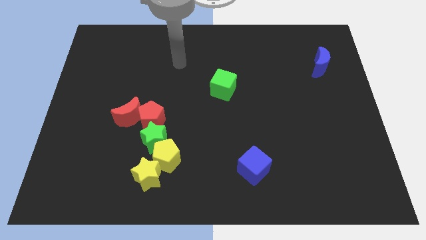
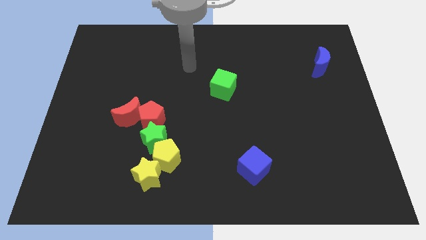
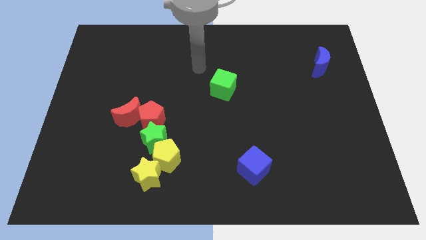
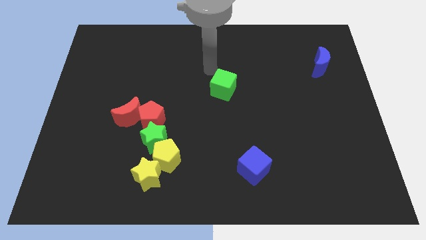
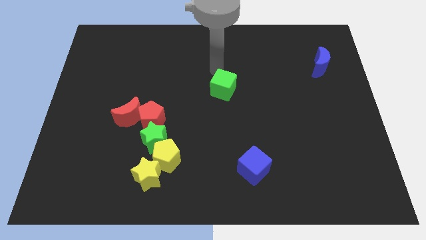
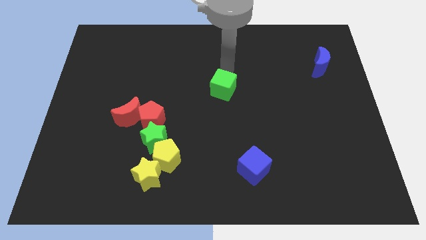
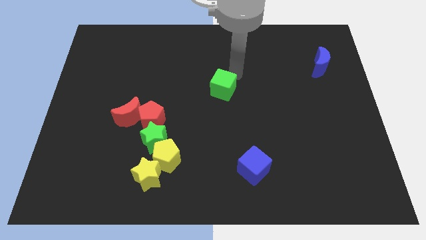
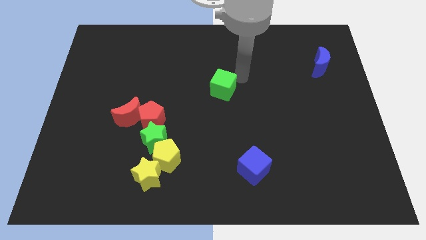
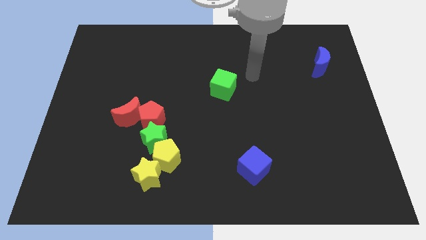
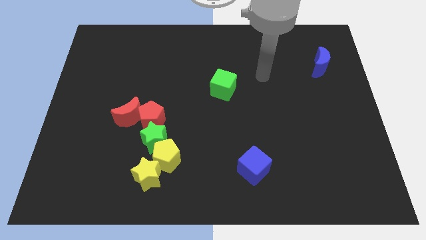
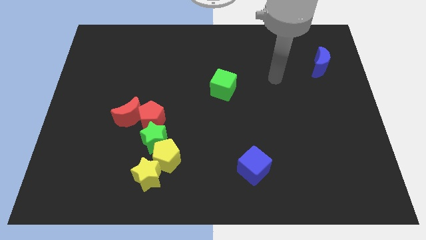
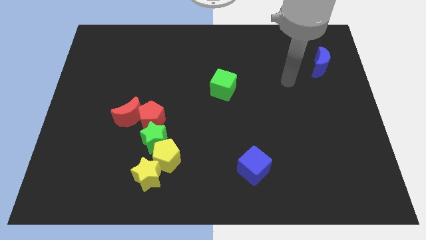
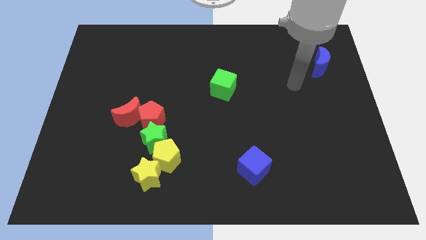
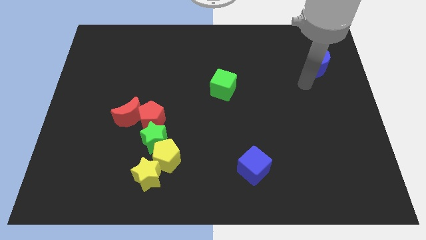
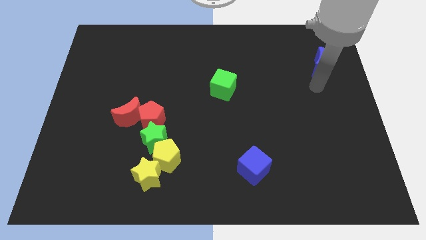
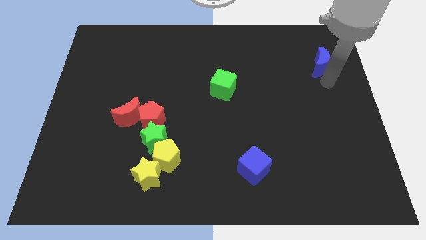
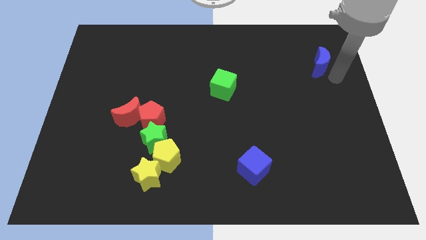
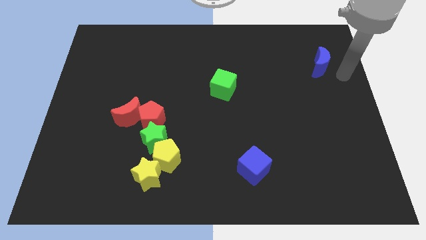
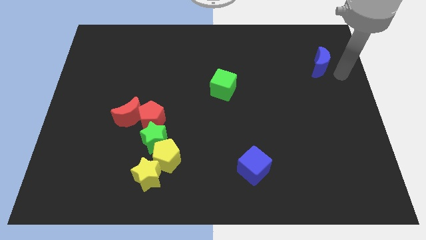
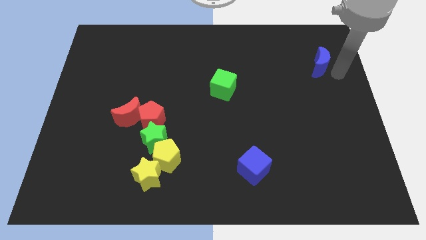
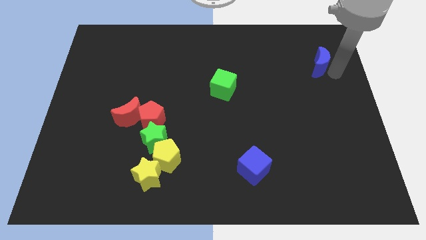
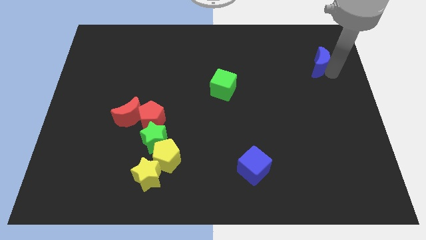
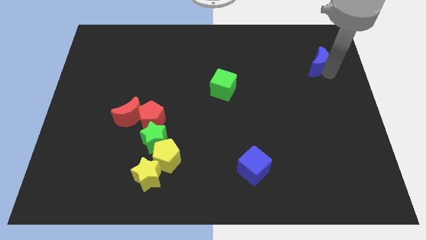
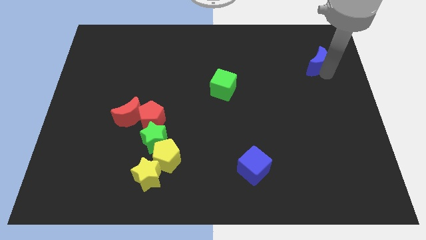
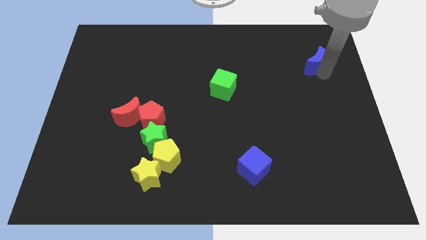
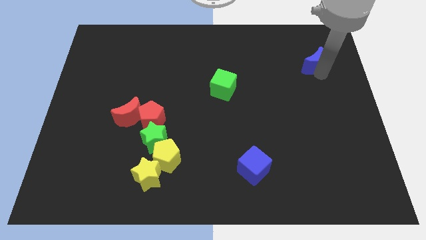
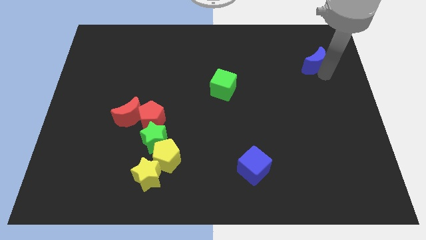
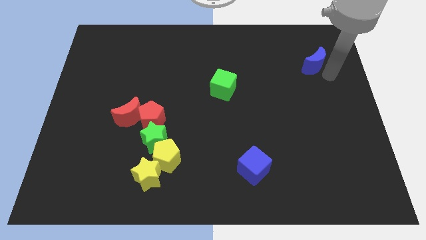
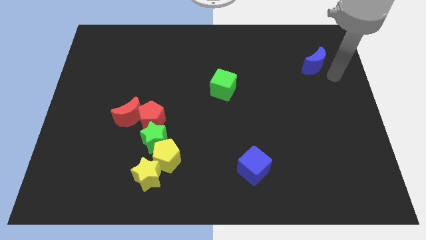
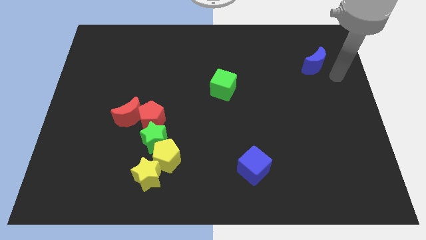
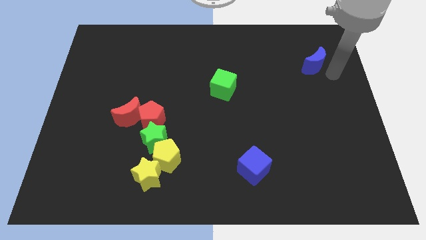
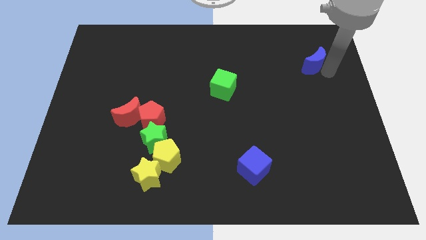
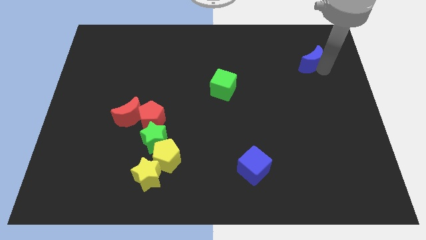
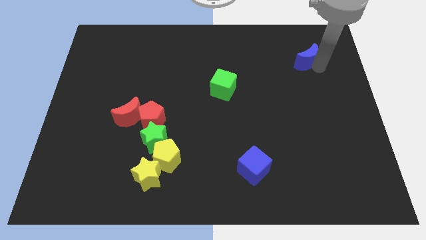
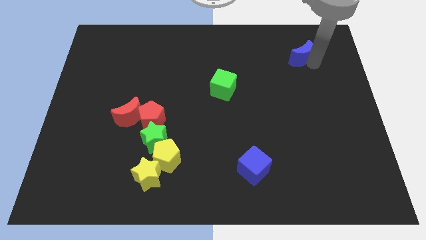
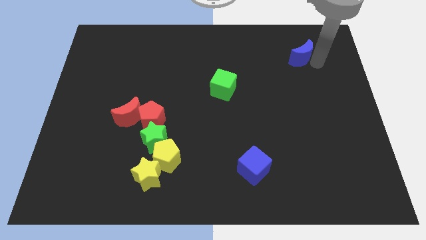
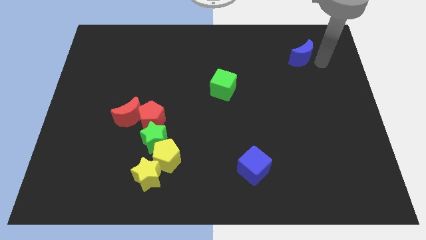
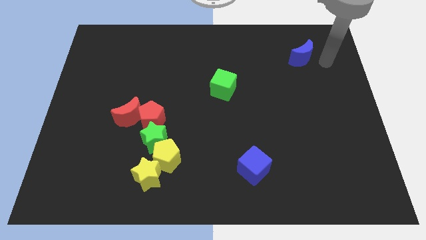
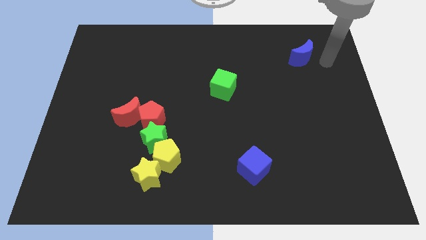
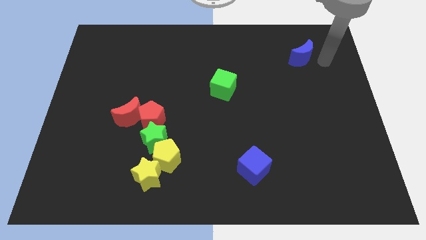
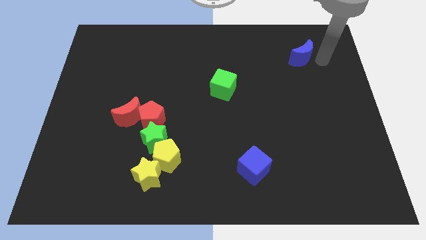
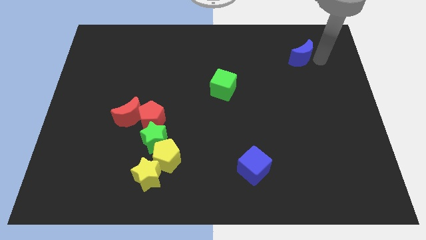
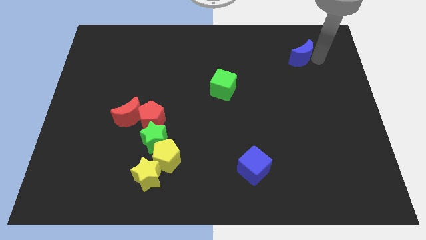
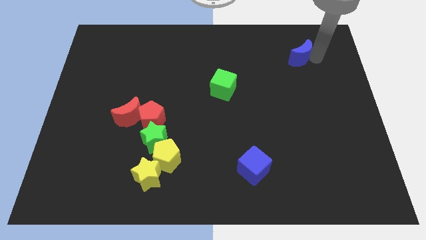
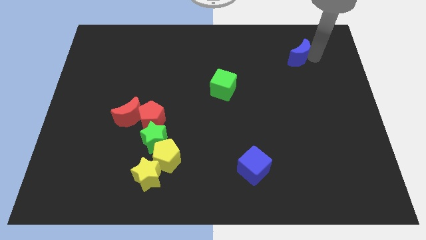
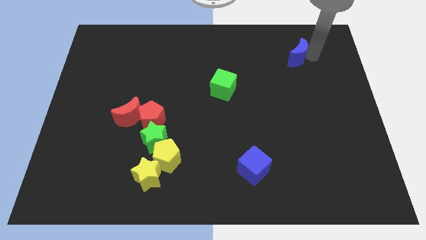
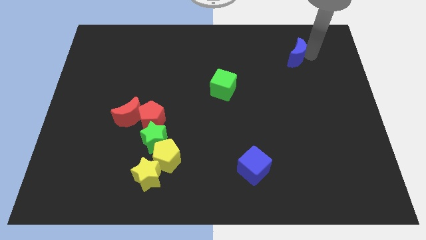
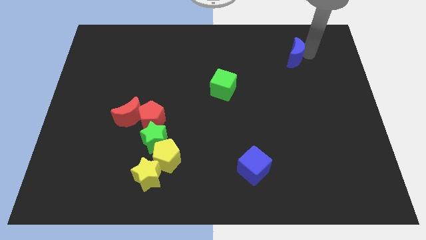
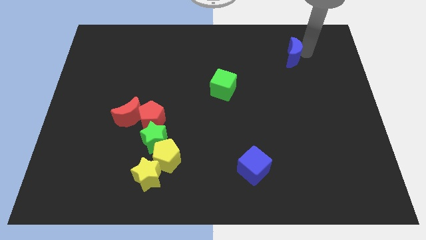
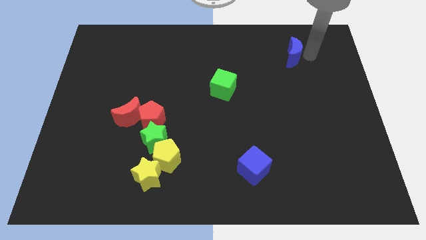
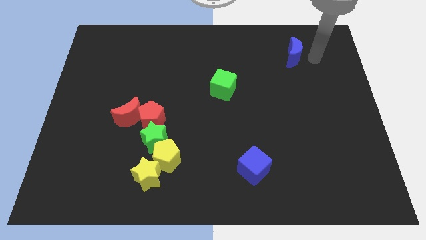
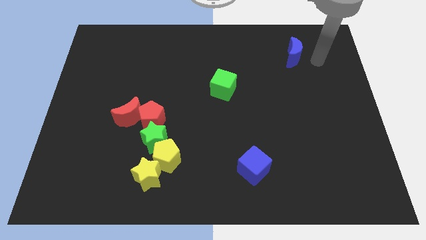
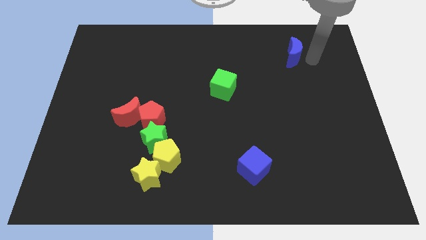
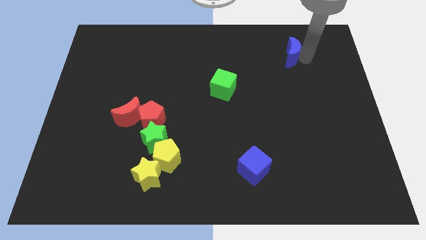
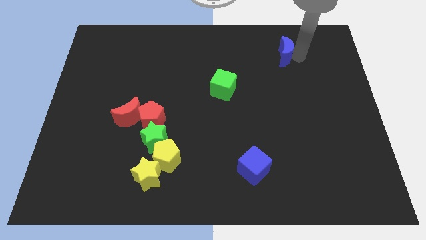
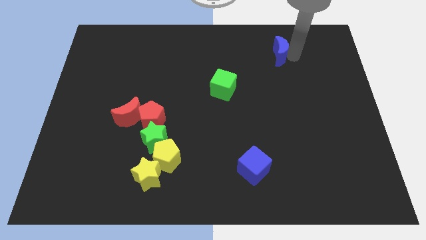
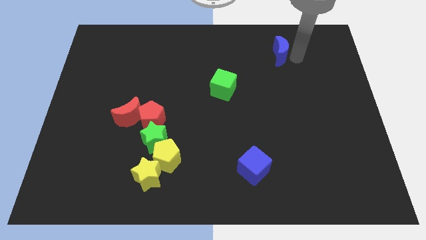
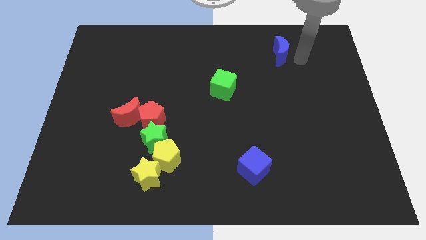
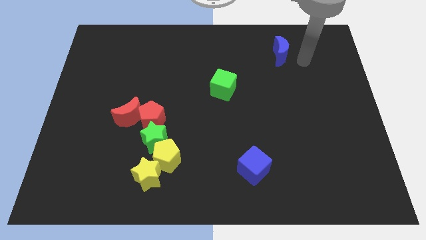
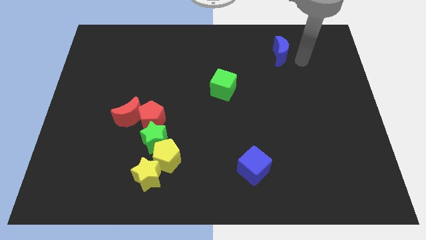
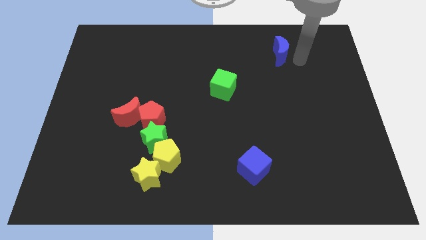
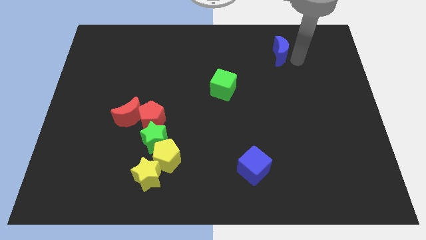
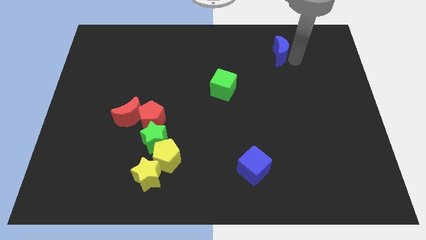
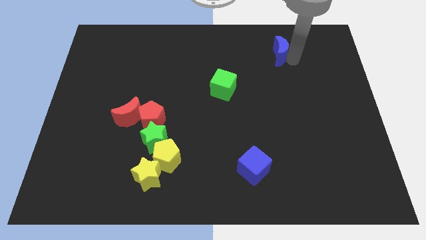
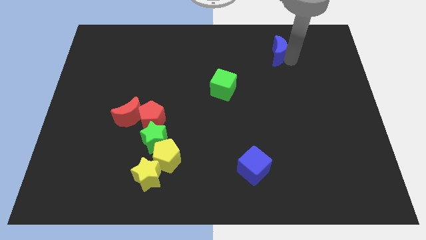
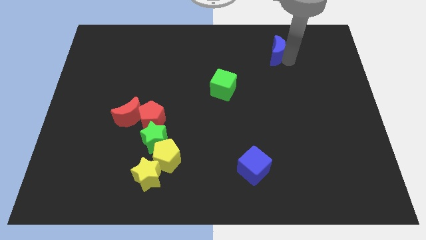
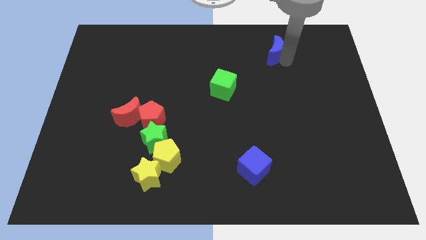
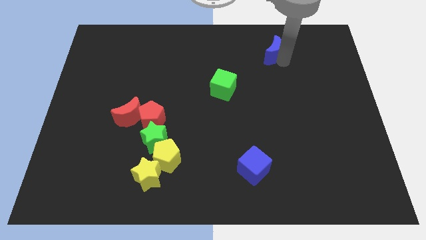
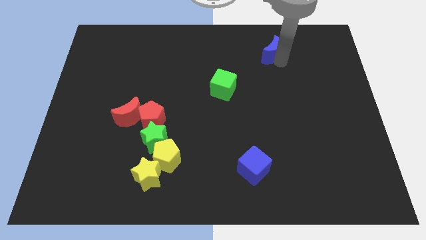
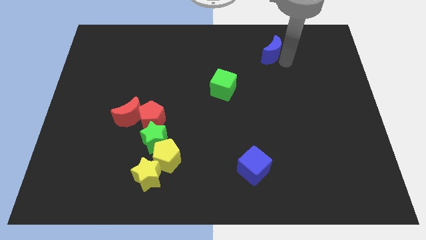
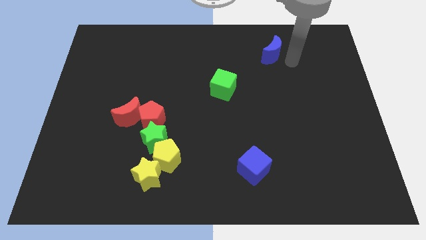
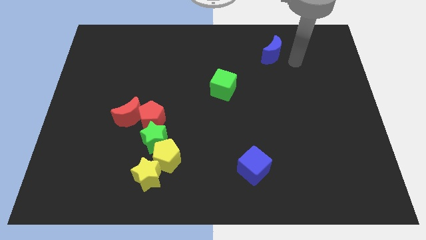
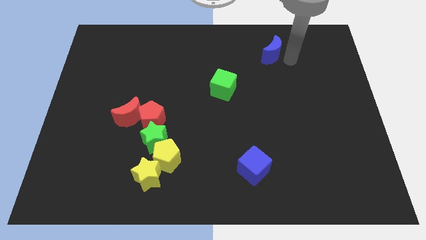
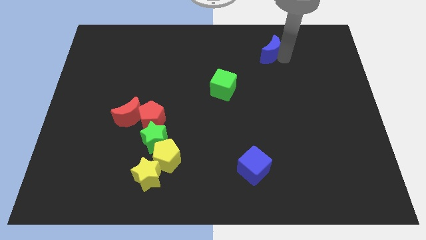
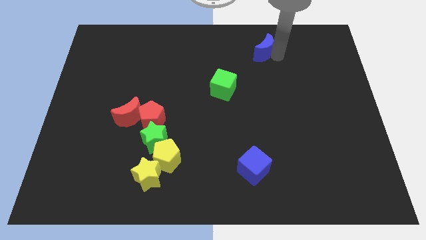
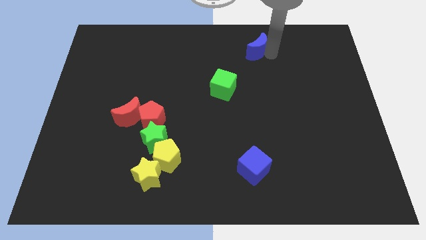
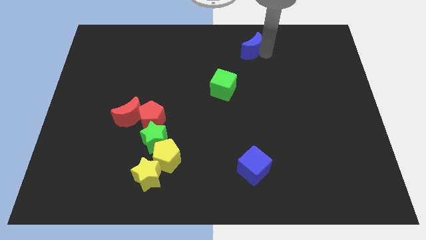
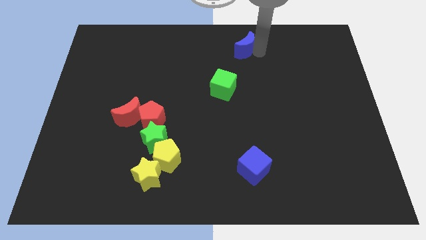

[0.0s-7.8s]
put the blue moon to the top
